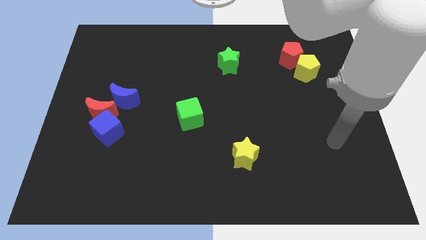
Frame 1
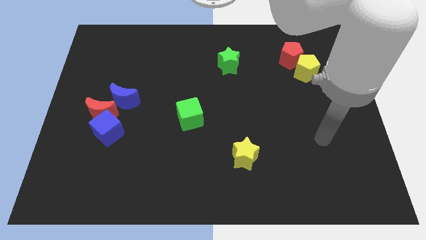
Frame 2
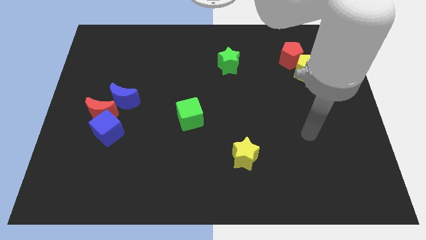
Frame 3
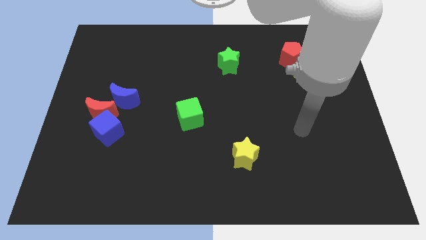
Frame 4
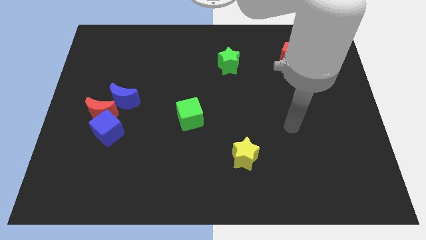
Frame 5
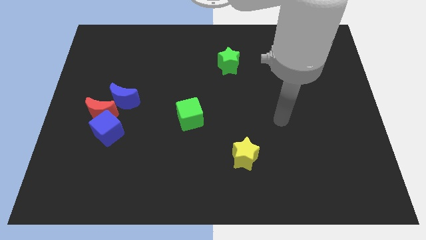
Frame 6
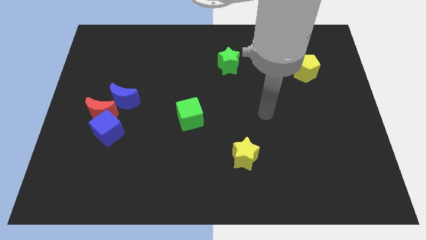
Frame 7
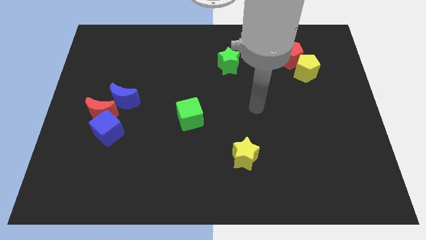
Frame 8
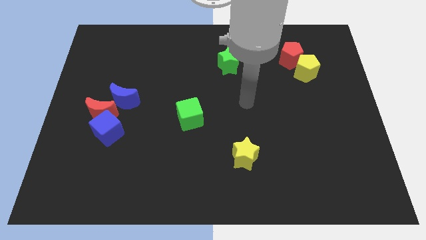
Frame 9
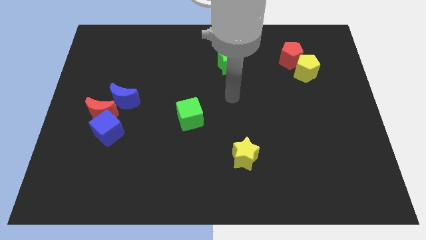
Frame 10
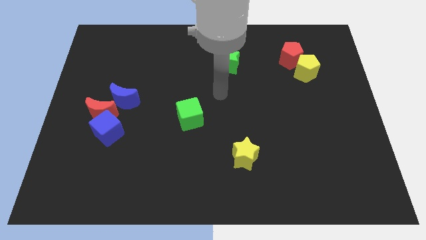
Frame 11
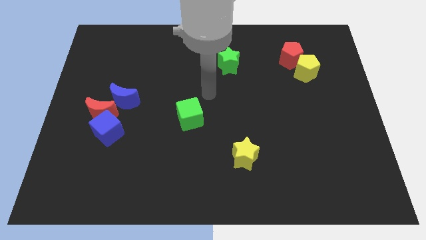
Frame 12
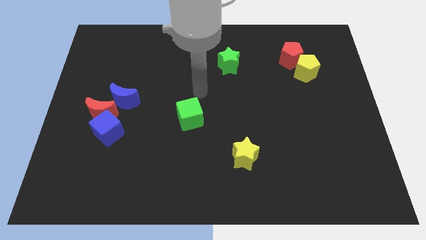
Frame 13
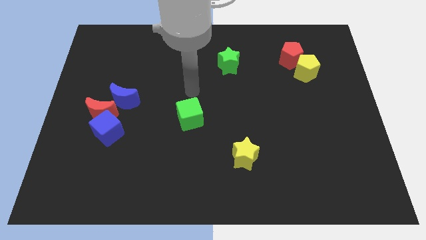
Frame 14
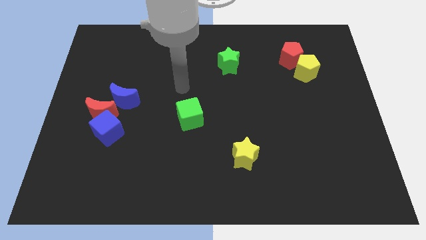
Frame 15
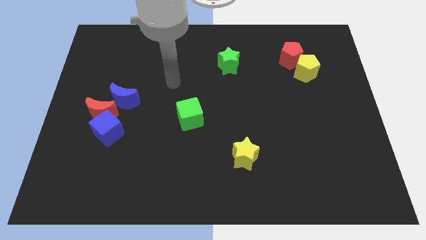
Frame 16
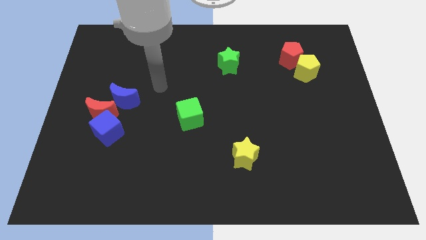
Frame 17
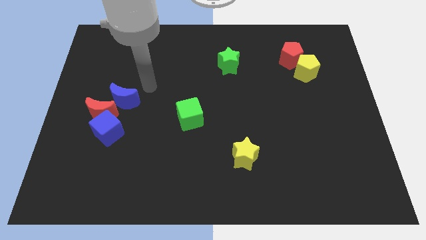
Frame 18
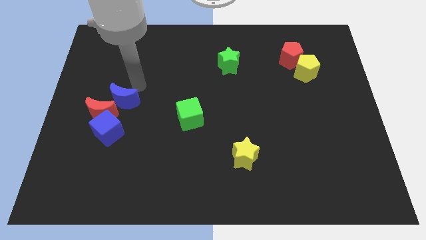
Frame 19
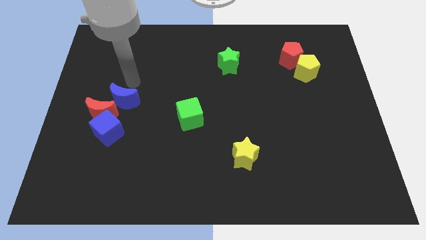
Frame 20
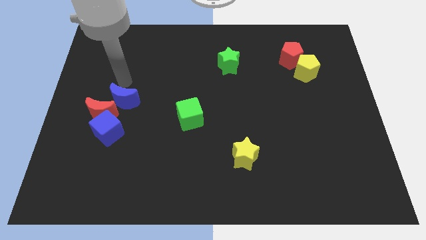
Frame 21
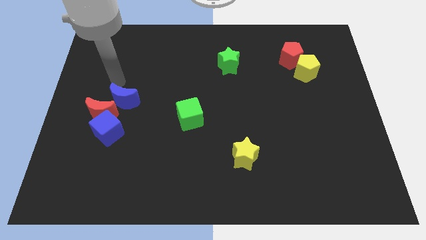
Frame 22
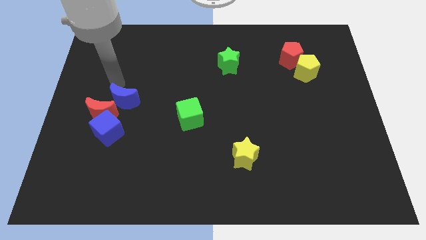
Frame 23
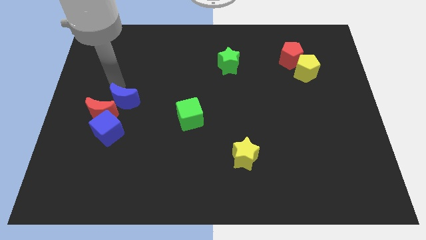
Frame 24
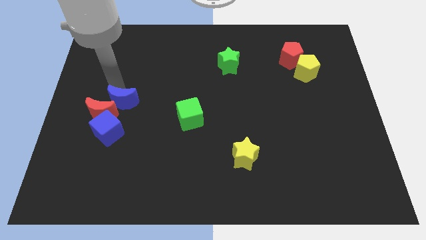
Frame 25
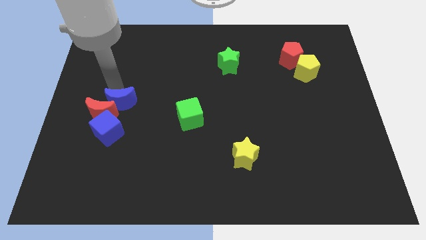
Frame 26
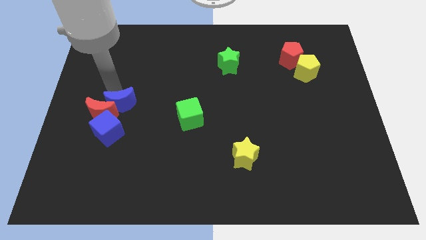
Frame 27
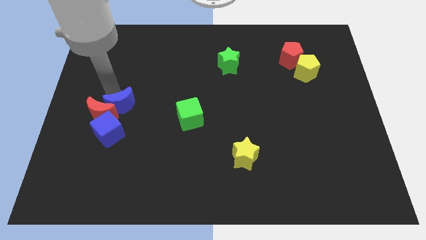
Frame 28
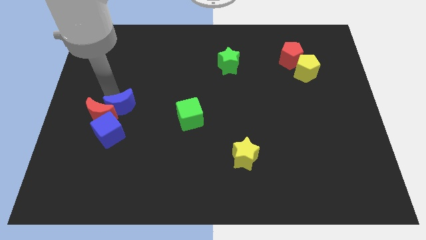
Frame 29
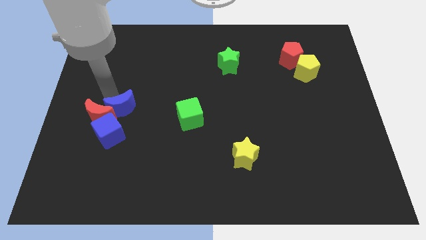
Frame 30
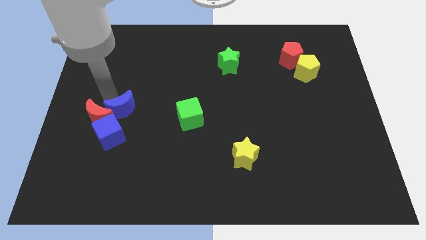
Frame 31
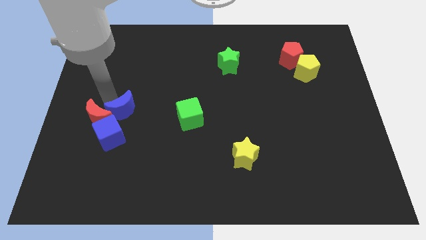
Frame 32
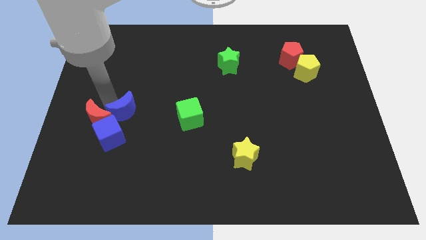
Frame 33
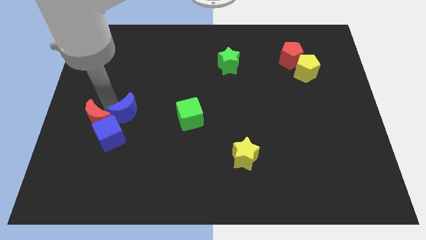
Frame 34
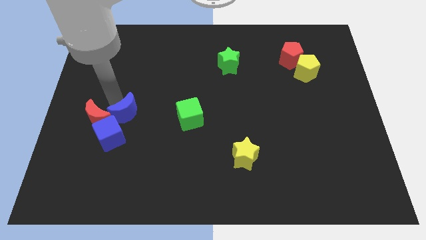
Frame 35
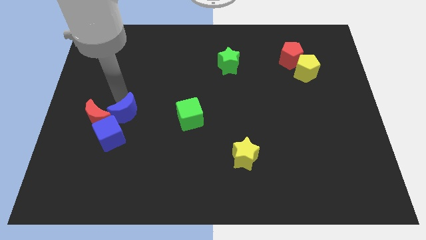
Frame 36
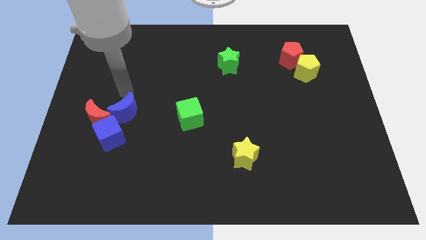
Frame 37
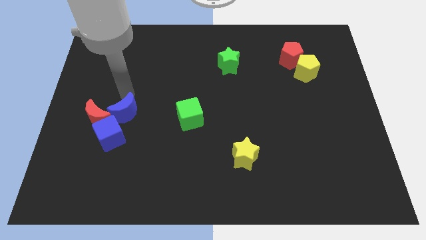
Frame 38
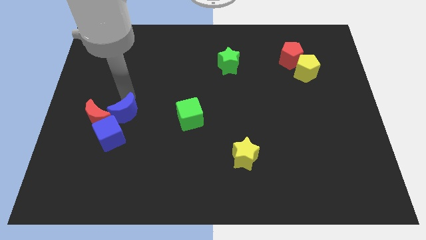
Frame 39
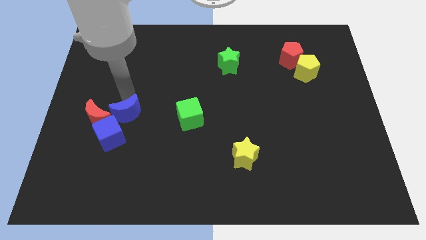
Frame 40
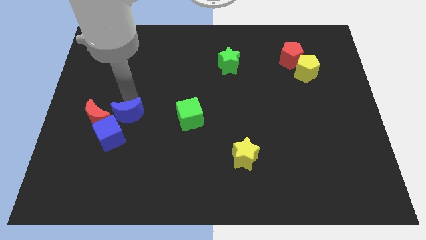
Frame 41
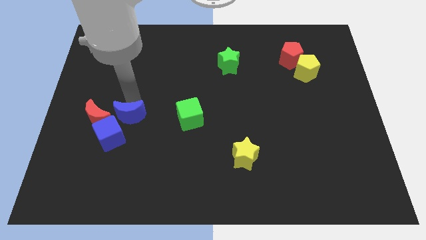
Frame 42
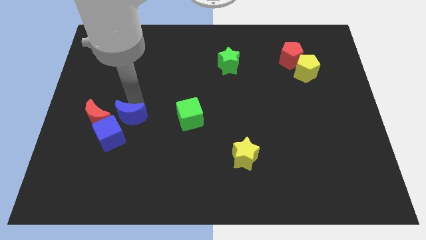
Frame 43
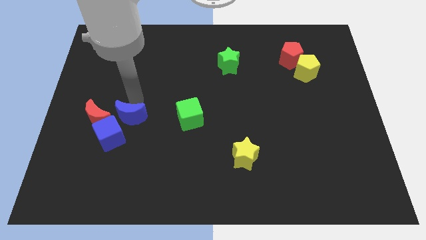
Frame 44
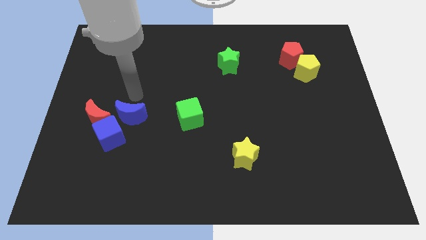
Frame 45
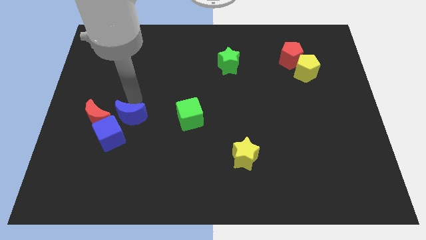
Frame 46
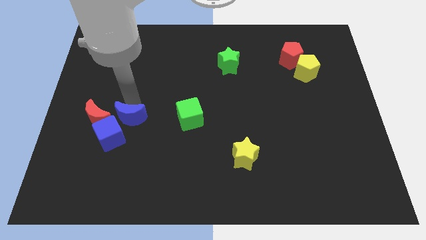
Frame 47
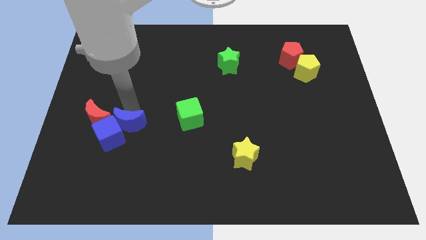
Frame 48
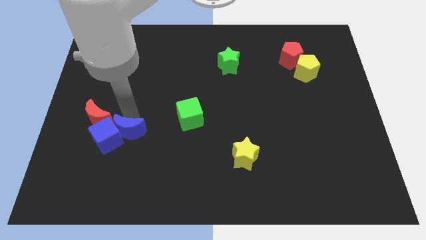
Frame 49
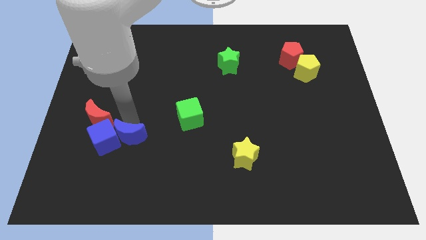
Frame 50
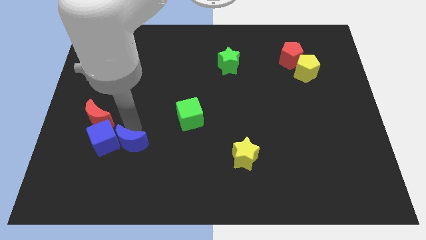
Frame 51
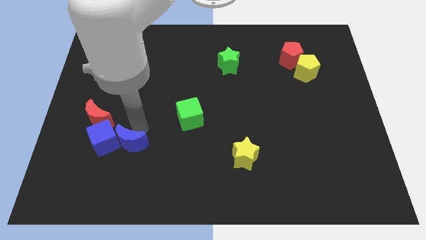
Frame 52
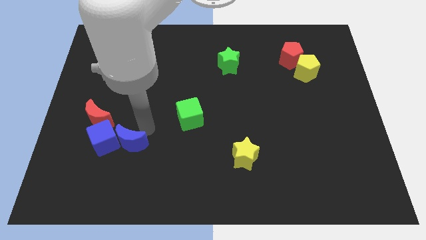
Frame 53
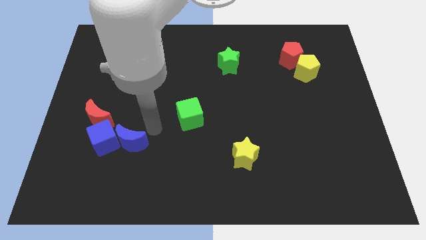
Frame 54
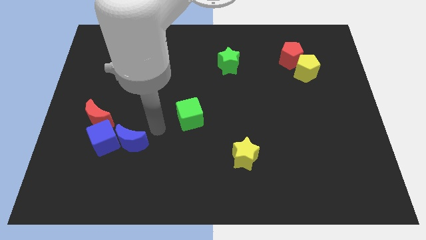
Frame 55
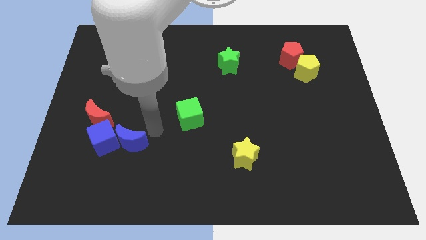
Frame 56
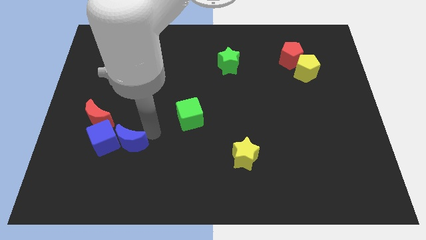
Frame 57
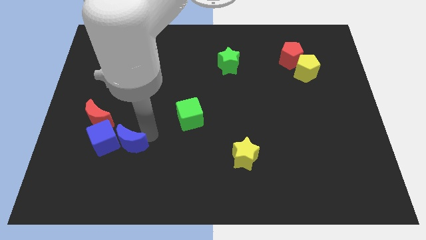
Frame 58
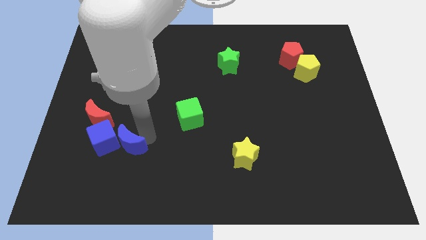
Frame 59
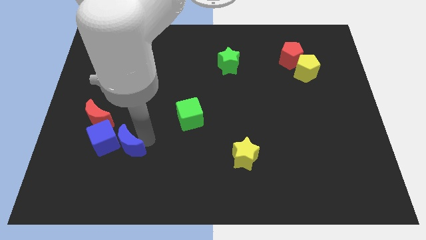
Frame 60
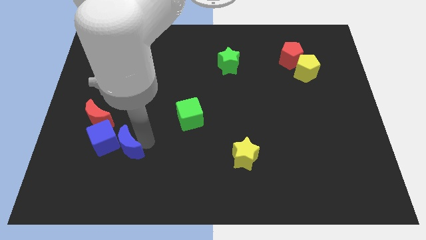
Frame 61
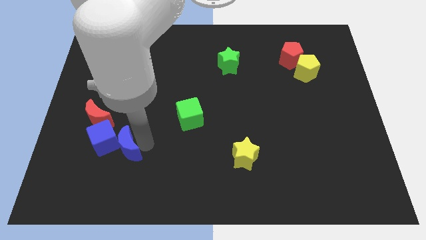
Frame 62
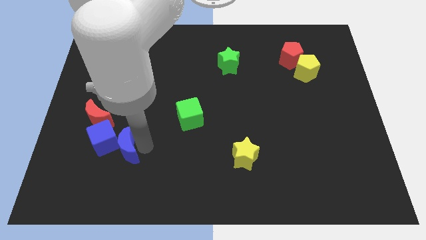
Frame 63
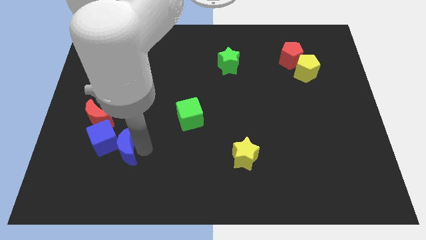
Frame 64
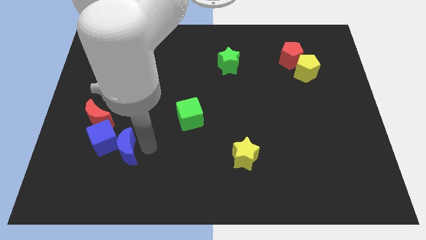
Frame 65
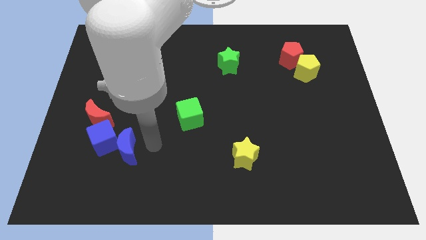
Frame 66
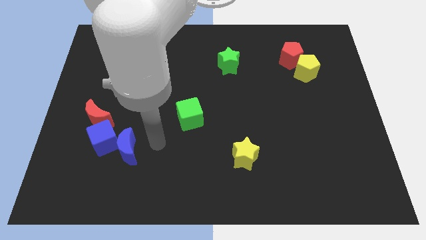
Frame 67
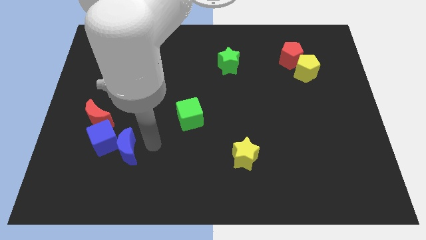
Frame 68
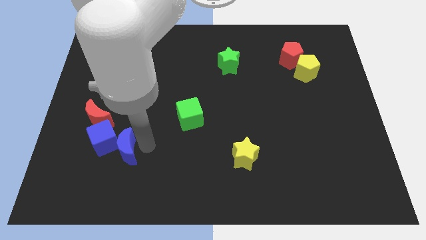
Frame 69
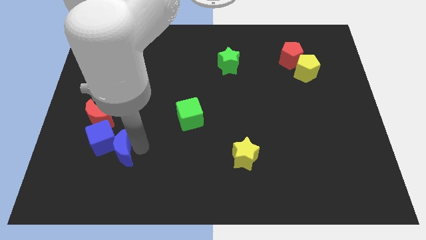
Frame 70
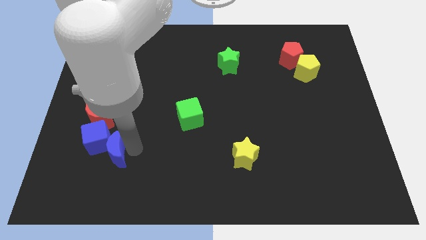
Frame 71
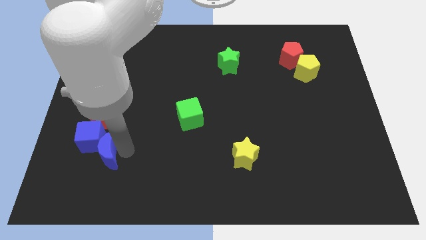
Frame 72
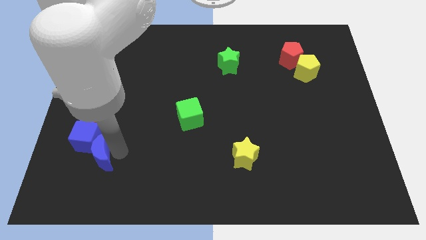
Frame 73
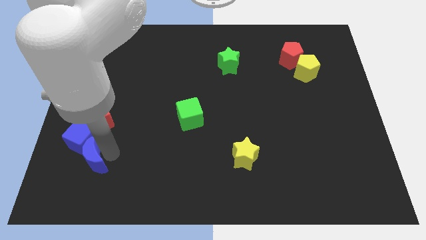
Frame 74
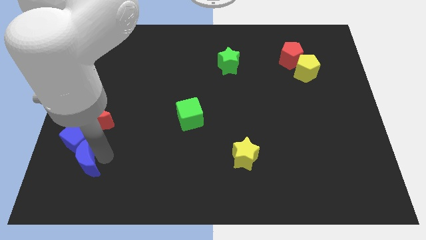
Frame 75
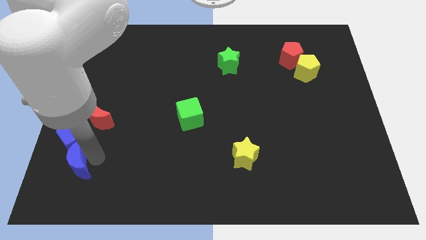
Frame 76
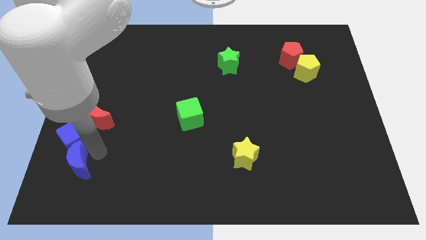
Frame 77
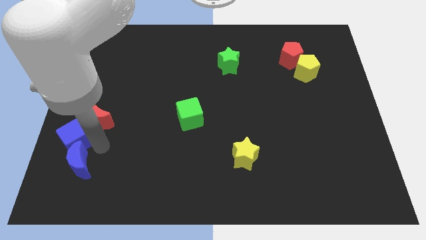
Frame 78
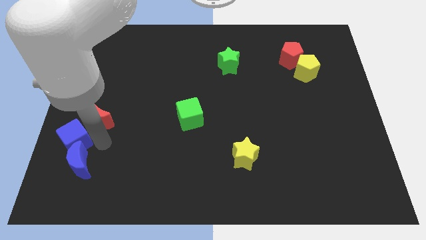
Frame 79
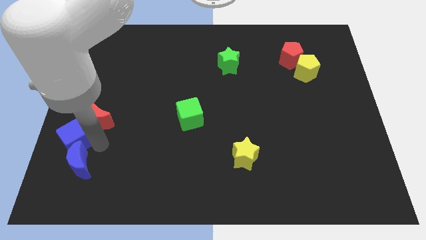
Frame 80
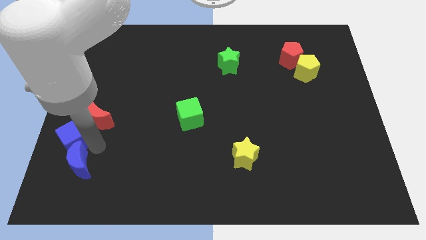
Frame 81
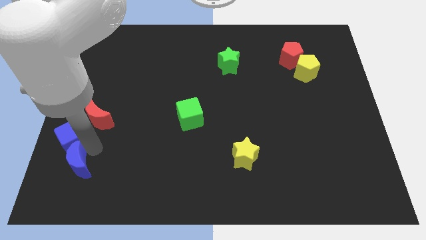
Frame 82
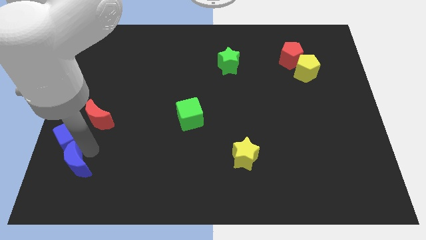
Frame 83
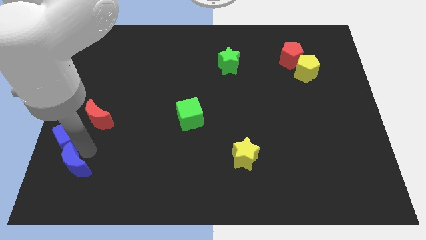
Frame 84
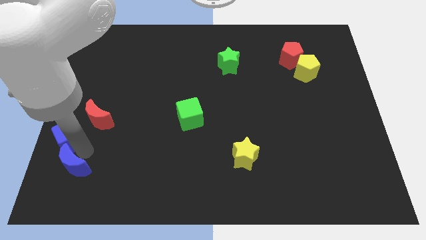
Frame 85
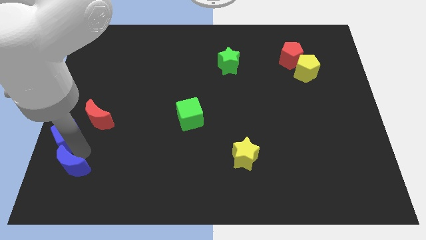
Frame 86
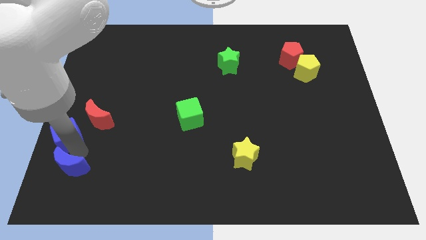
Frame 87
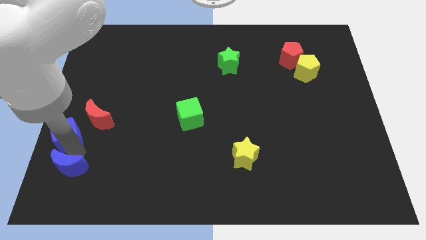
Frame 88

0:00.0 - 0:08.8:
slide the blue moon to the bottom left of the board
